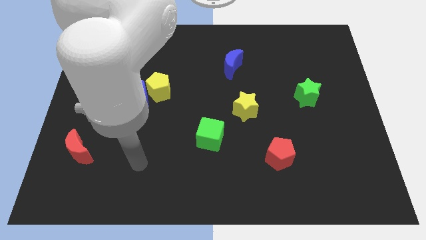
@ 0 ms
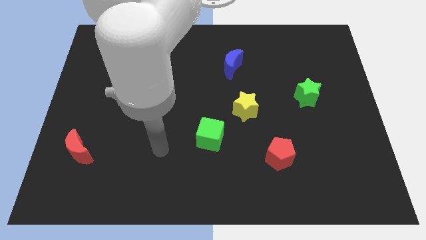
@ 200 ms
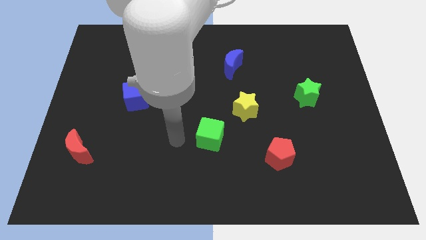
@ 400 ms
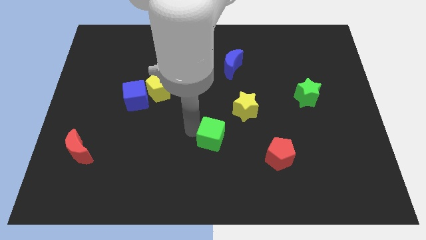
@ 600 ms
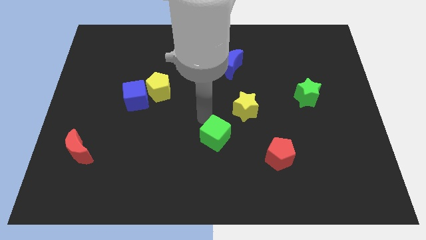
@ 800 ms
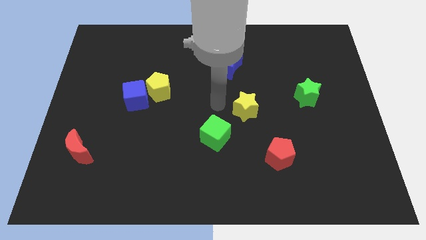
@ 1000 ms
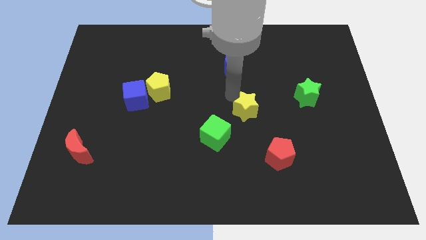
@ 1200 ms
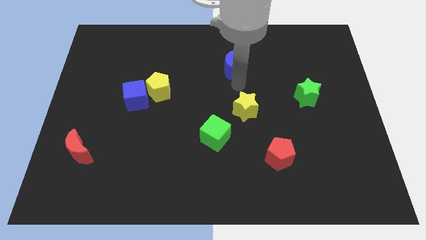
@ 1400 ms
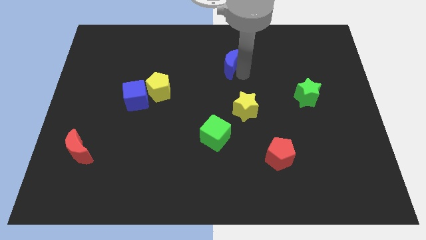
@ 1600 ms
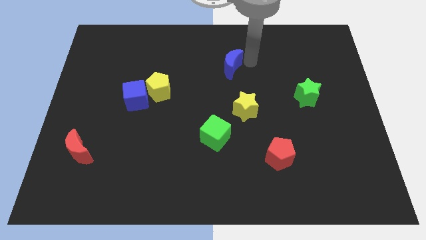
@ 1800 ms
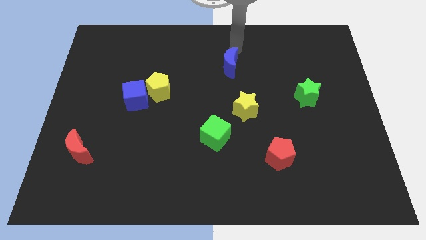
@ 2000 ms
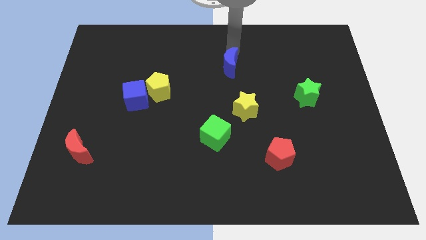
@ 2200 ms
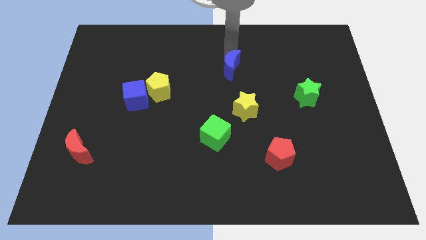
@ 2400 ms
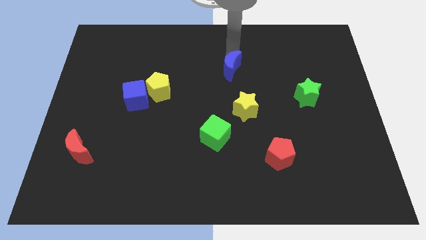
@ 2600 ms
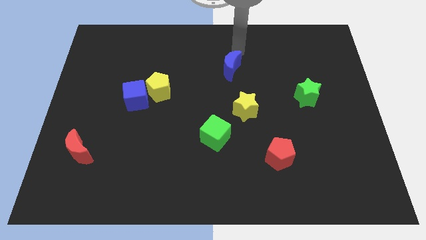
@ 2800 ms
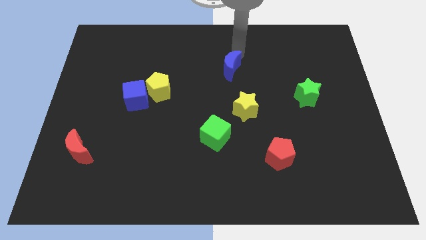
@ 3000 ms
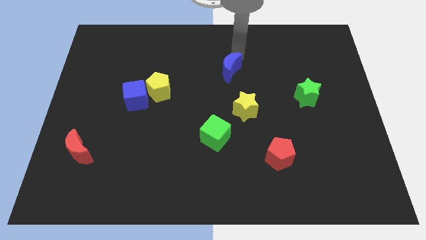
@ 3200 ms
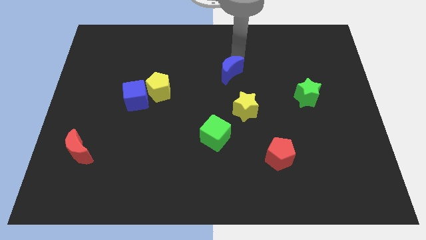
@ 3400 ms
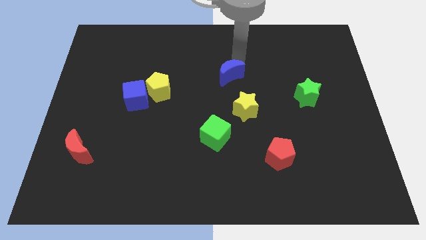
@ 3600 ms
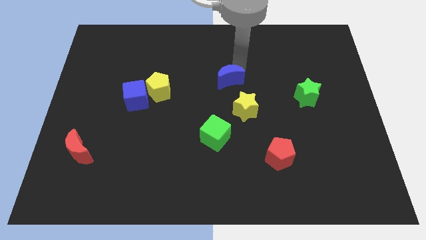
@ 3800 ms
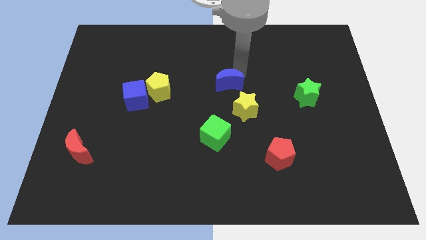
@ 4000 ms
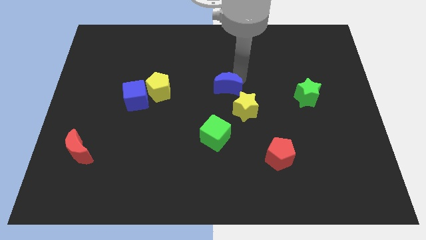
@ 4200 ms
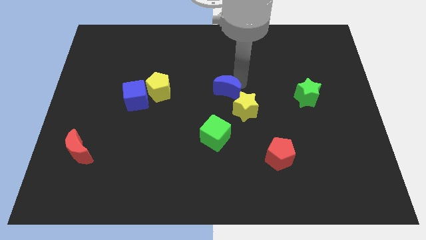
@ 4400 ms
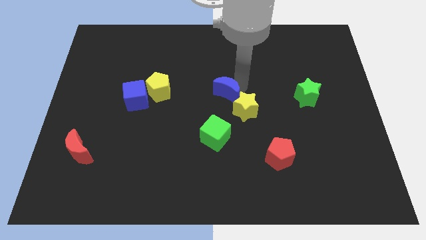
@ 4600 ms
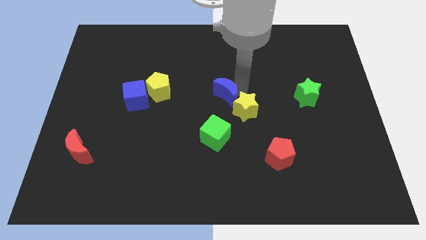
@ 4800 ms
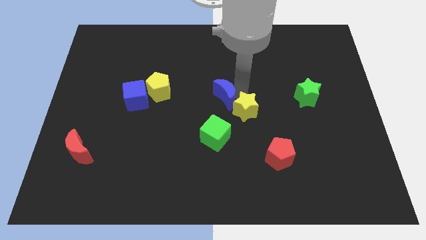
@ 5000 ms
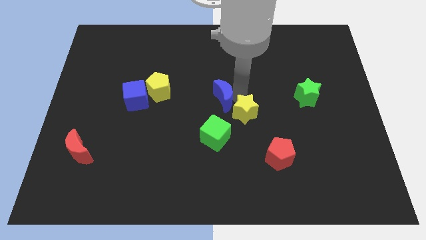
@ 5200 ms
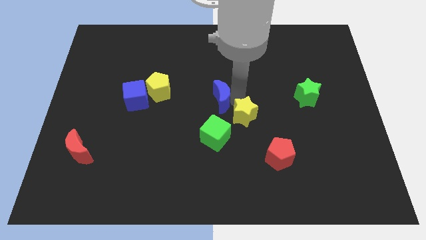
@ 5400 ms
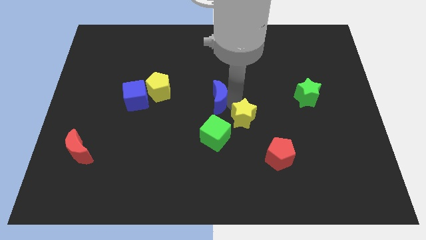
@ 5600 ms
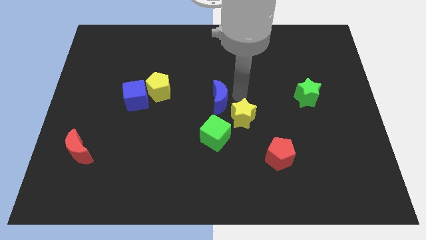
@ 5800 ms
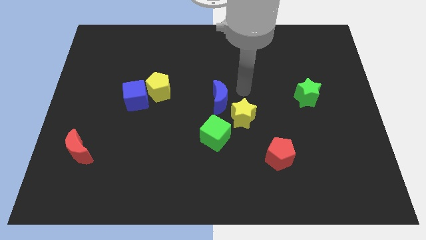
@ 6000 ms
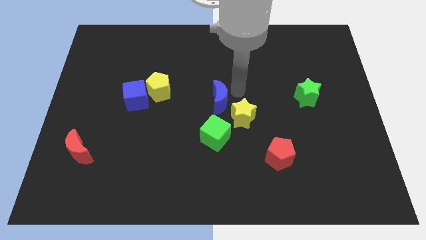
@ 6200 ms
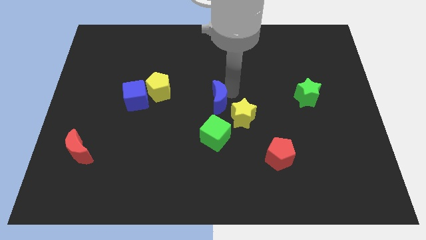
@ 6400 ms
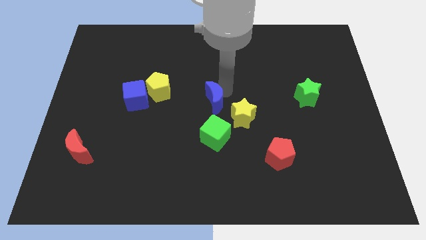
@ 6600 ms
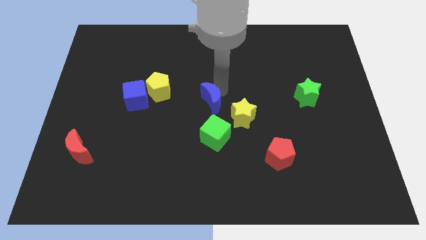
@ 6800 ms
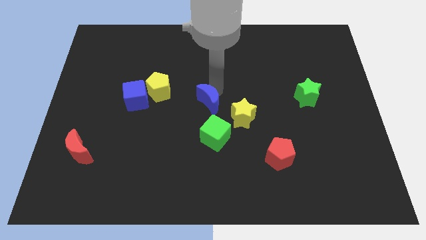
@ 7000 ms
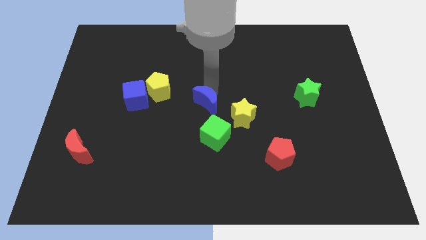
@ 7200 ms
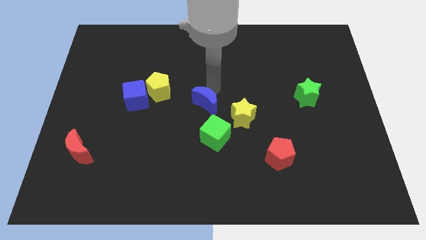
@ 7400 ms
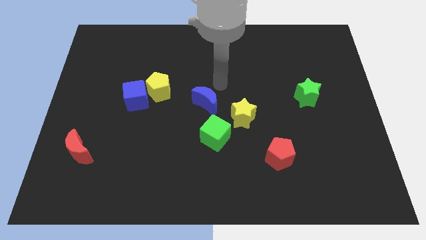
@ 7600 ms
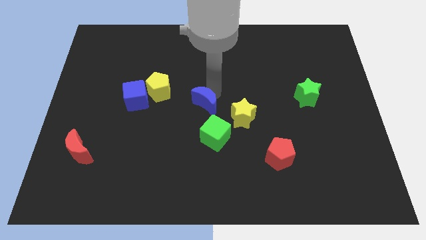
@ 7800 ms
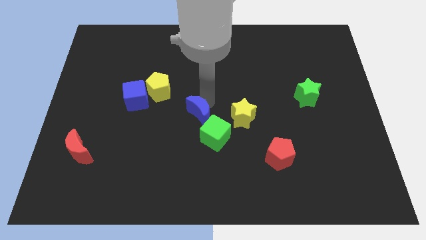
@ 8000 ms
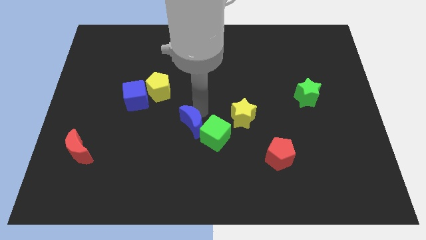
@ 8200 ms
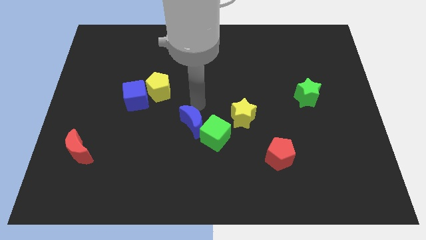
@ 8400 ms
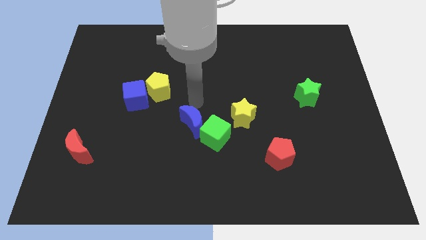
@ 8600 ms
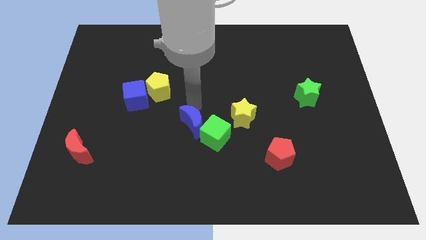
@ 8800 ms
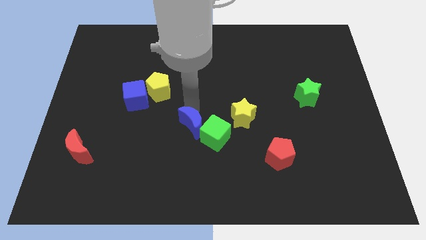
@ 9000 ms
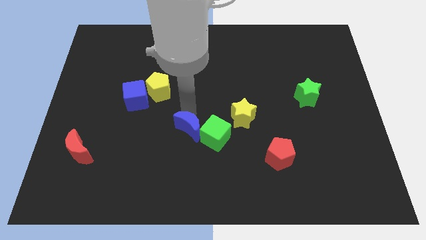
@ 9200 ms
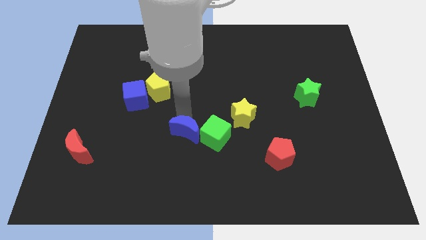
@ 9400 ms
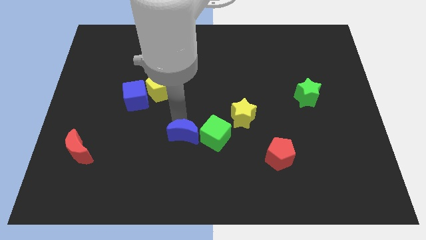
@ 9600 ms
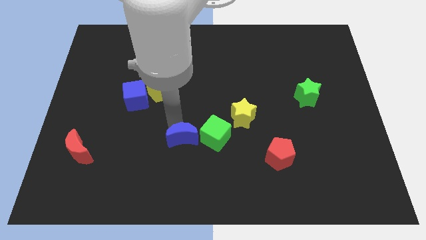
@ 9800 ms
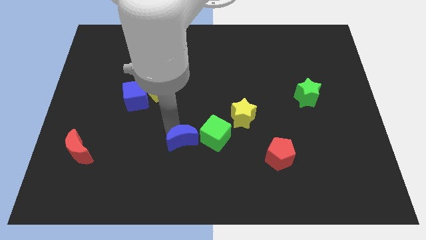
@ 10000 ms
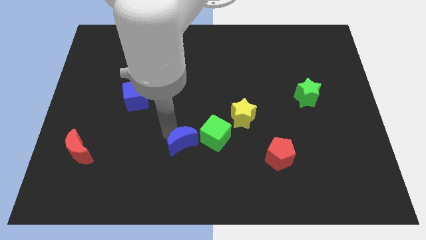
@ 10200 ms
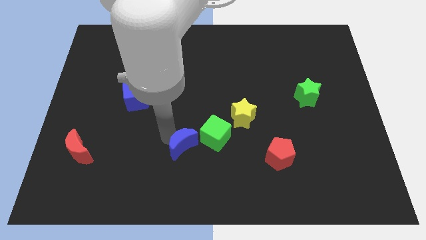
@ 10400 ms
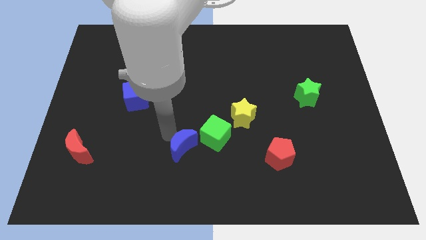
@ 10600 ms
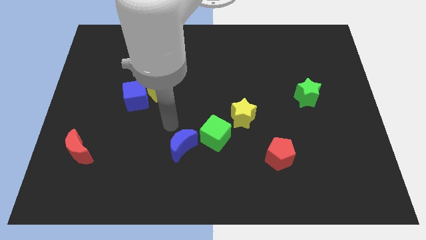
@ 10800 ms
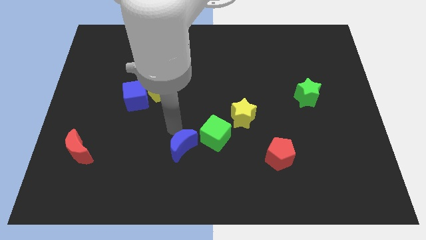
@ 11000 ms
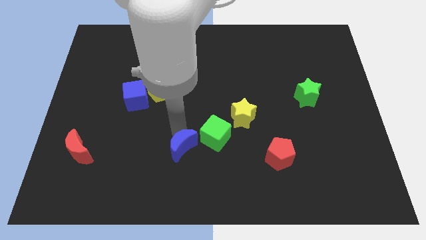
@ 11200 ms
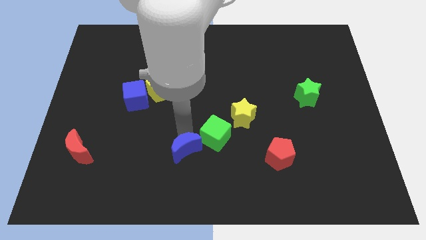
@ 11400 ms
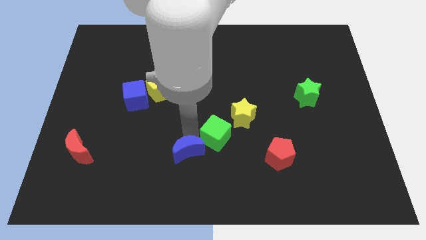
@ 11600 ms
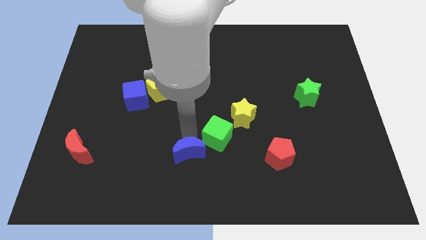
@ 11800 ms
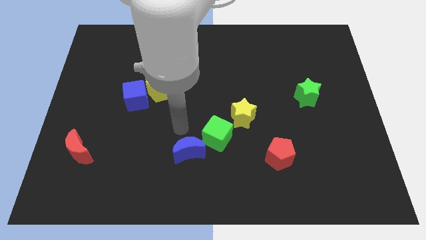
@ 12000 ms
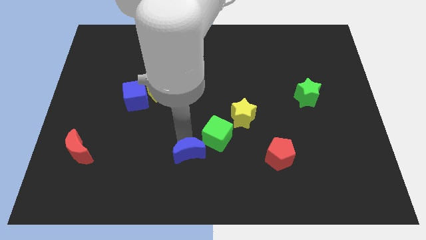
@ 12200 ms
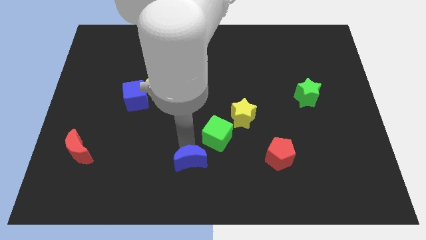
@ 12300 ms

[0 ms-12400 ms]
slide the blue moon to the bottom side

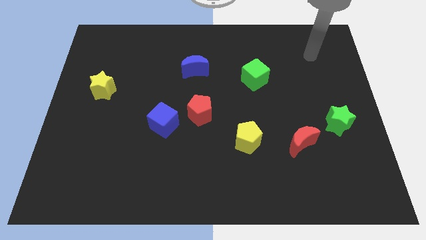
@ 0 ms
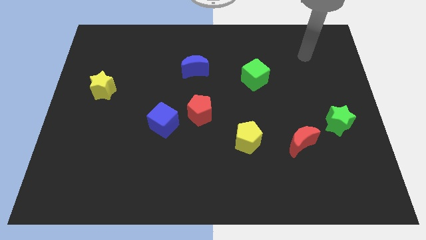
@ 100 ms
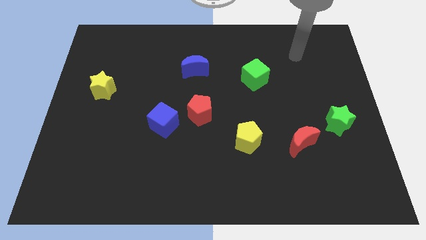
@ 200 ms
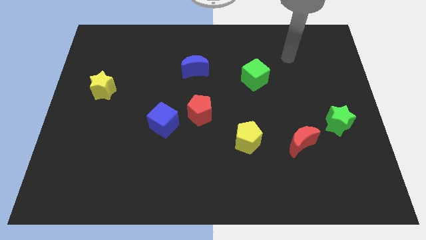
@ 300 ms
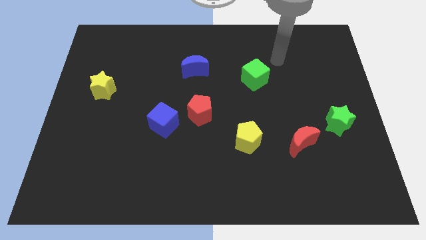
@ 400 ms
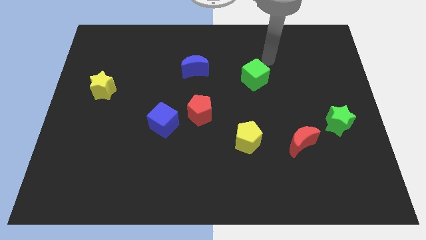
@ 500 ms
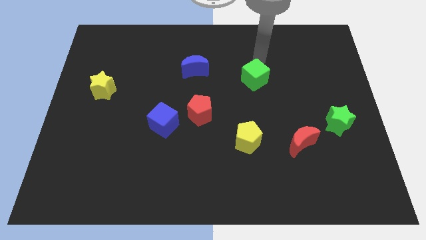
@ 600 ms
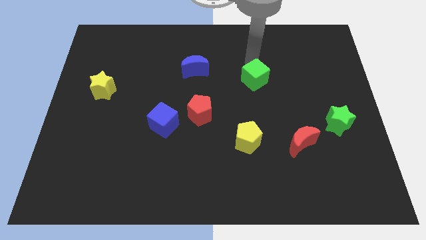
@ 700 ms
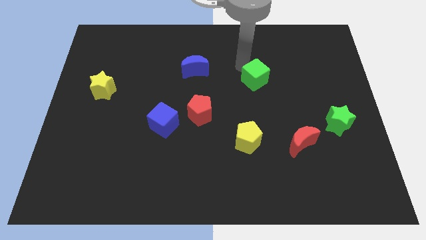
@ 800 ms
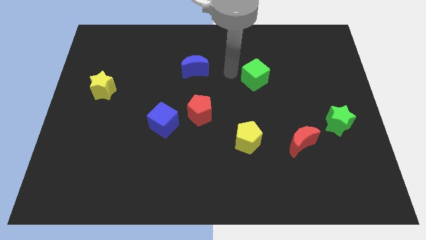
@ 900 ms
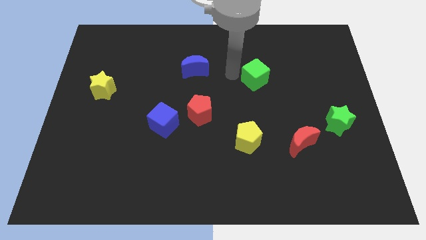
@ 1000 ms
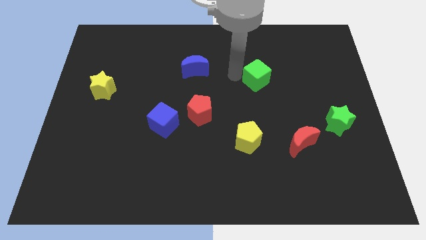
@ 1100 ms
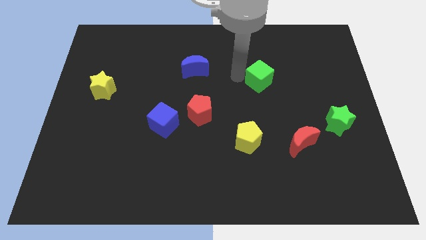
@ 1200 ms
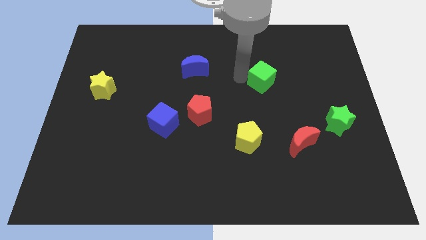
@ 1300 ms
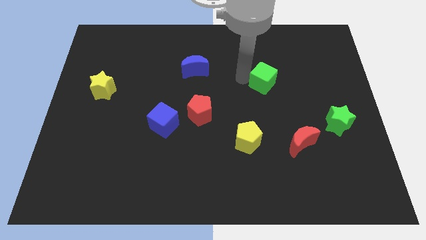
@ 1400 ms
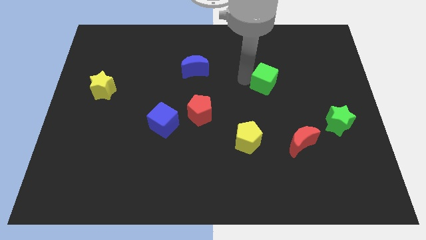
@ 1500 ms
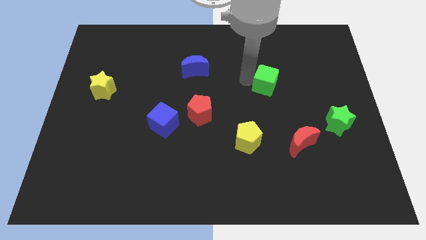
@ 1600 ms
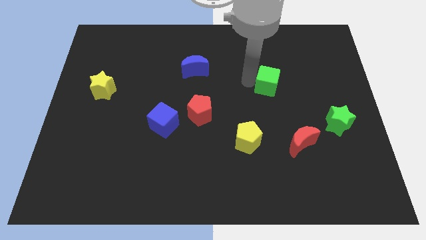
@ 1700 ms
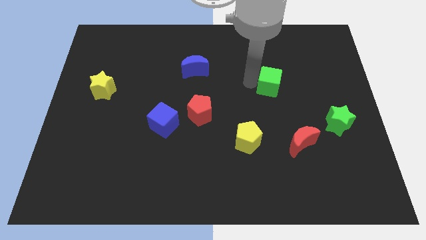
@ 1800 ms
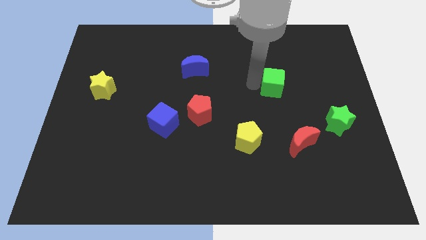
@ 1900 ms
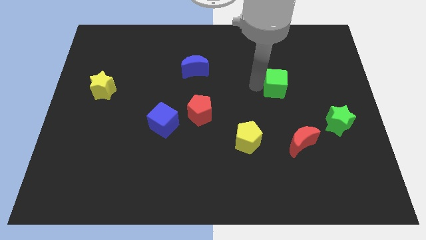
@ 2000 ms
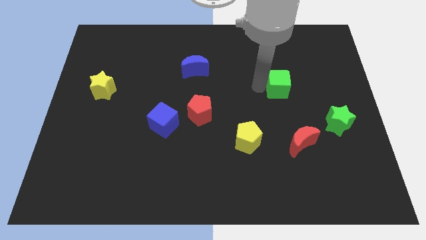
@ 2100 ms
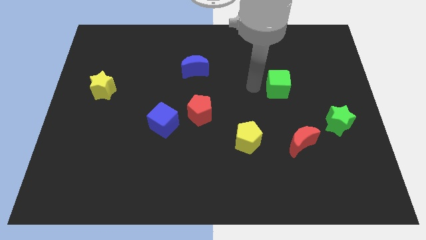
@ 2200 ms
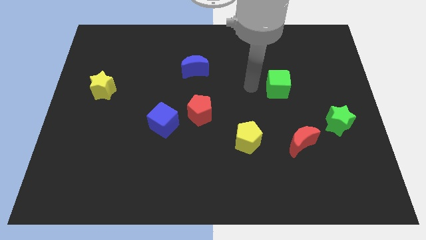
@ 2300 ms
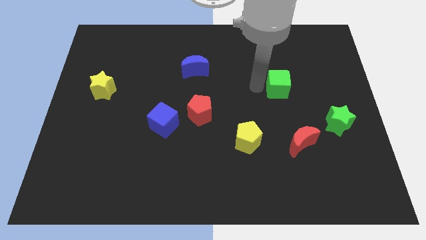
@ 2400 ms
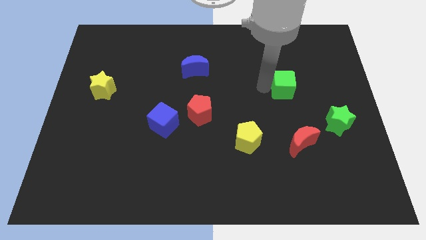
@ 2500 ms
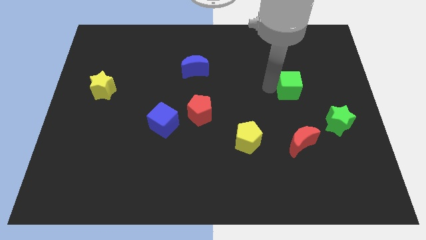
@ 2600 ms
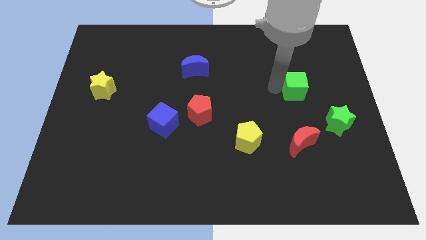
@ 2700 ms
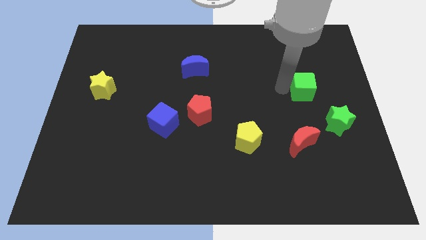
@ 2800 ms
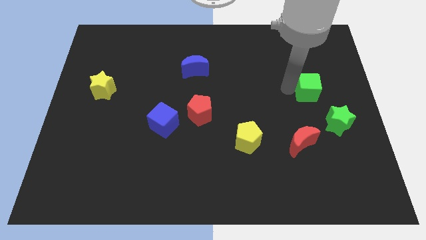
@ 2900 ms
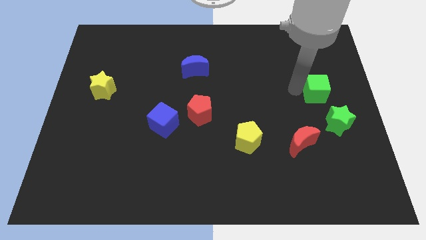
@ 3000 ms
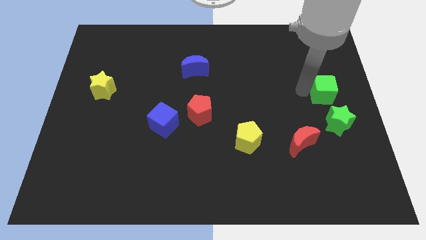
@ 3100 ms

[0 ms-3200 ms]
put the green cube to the center right
